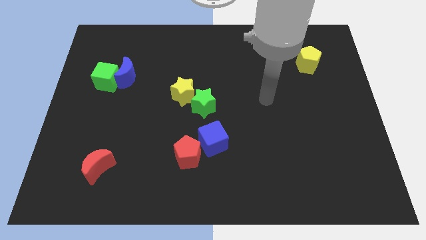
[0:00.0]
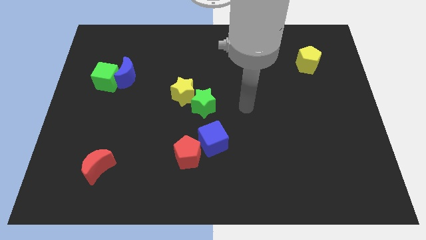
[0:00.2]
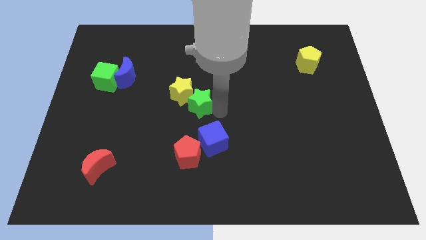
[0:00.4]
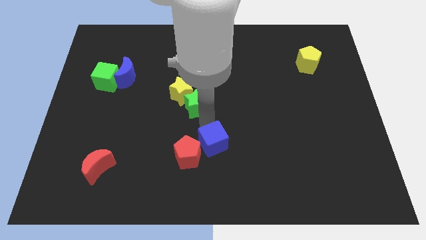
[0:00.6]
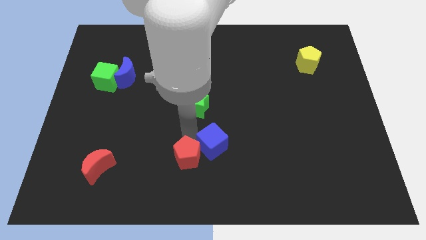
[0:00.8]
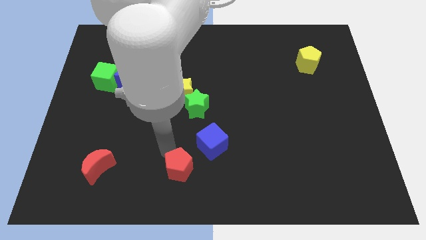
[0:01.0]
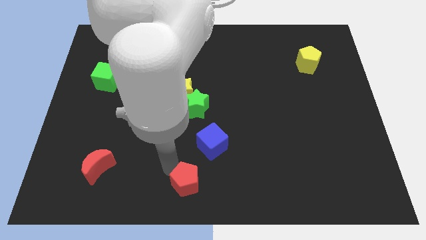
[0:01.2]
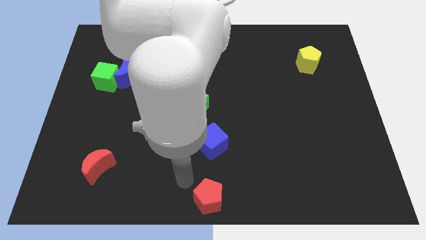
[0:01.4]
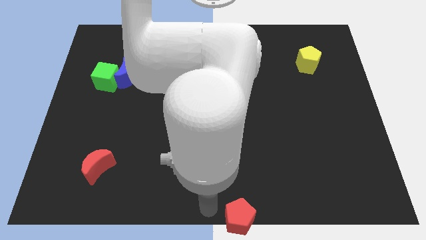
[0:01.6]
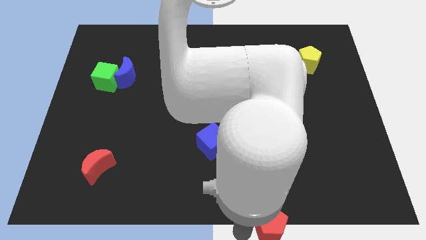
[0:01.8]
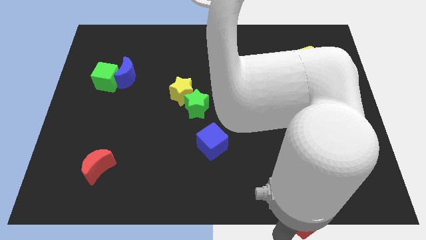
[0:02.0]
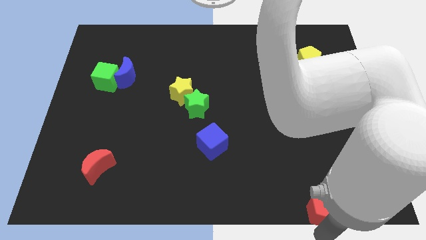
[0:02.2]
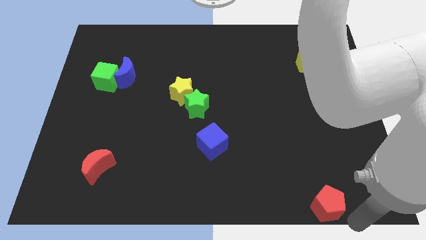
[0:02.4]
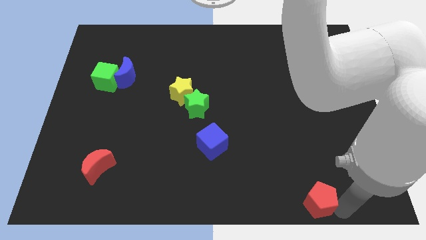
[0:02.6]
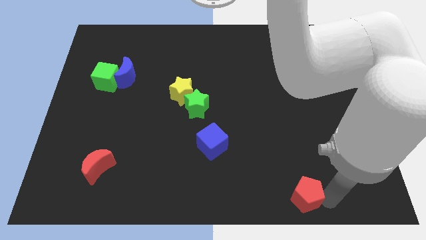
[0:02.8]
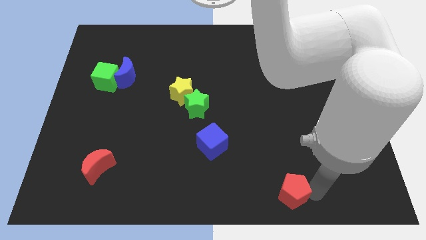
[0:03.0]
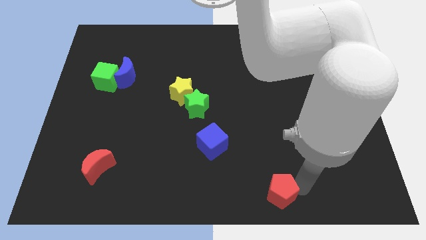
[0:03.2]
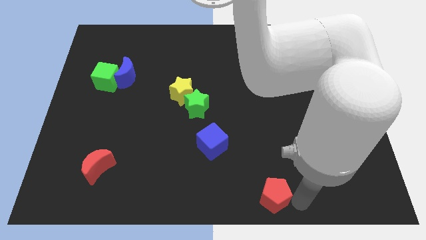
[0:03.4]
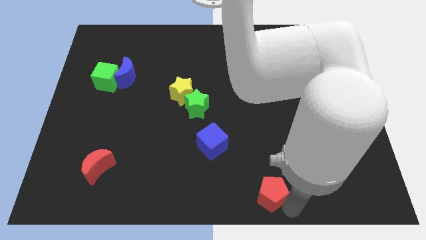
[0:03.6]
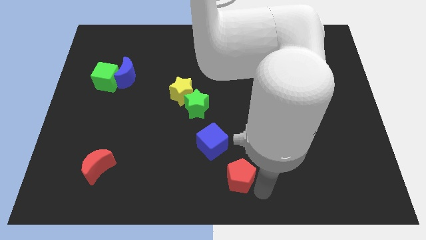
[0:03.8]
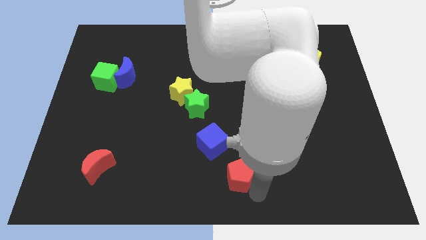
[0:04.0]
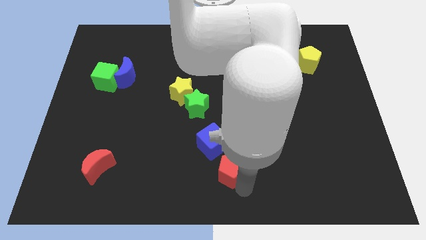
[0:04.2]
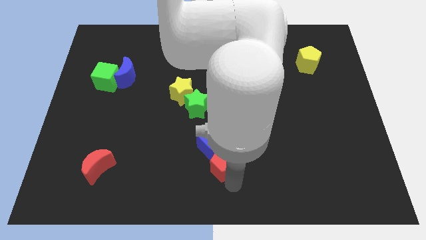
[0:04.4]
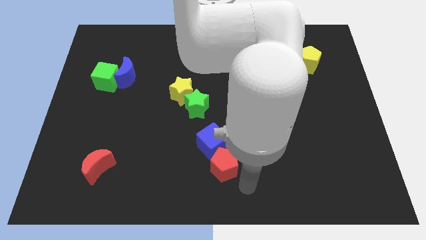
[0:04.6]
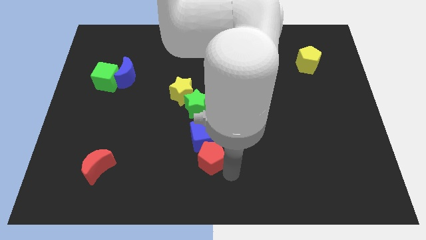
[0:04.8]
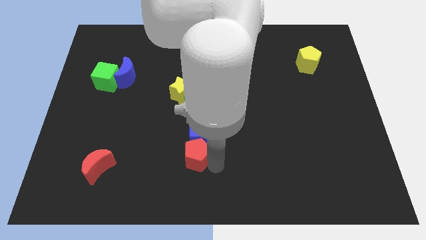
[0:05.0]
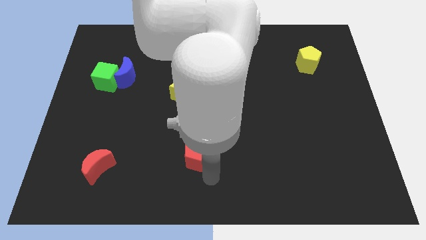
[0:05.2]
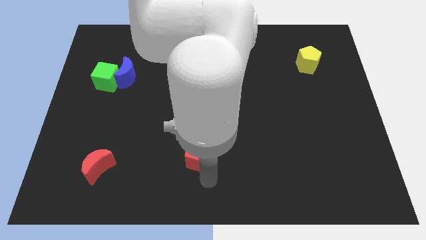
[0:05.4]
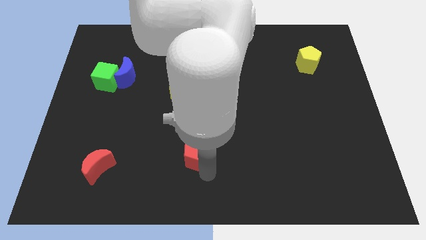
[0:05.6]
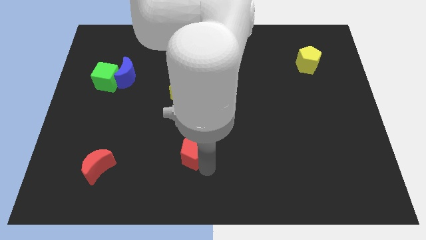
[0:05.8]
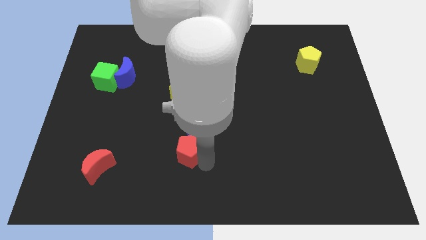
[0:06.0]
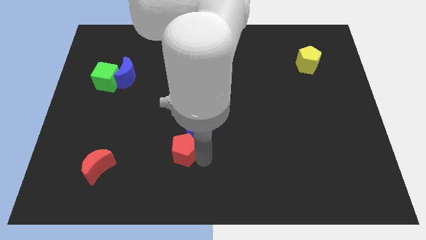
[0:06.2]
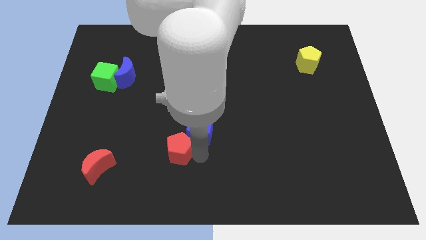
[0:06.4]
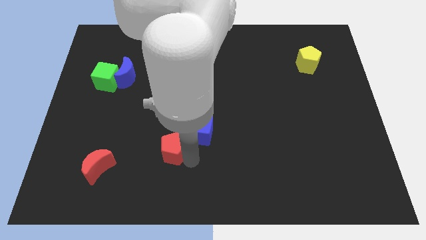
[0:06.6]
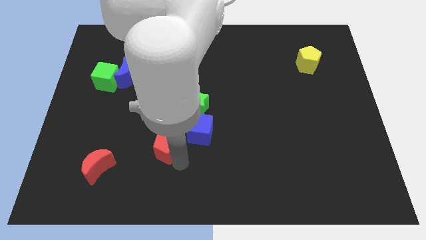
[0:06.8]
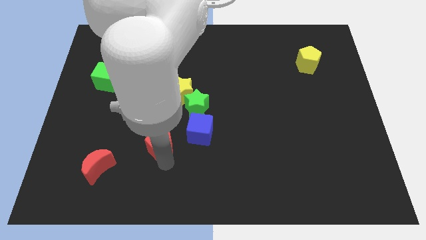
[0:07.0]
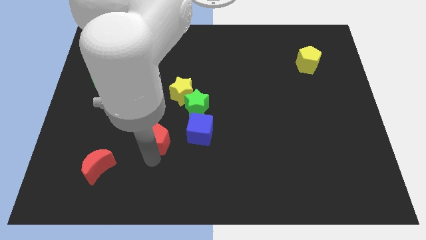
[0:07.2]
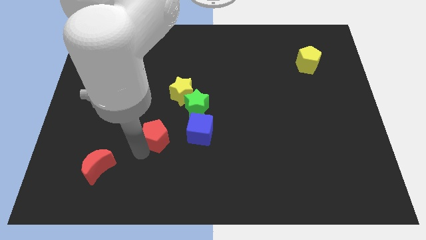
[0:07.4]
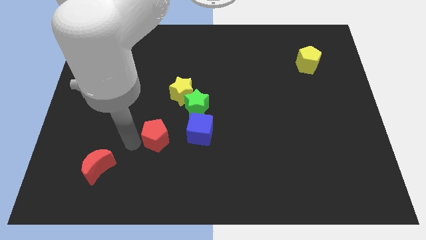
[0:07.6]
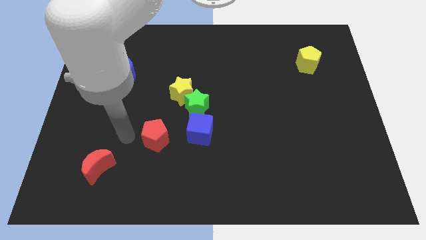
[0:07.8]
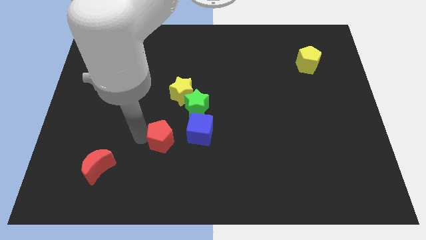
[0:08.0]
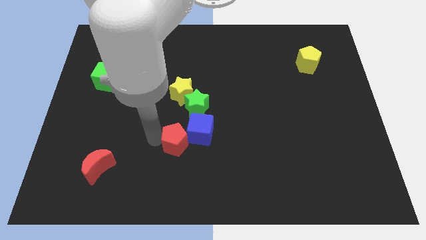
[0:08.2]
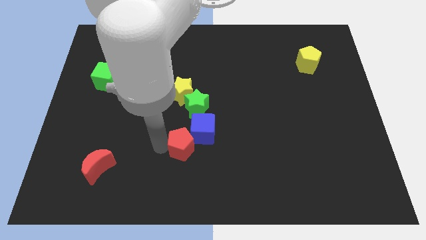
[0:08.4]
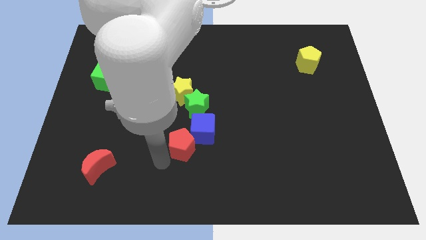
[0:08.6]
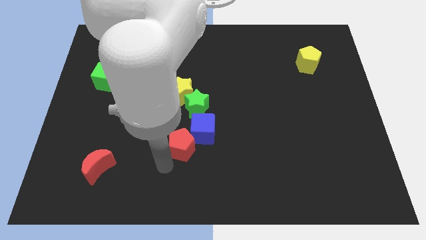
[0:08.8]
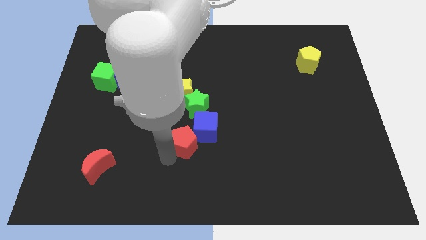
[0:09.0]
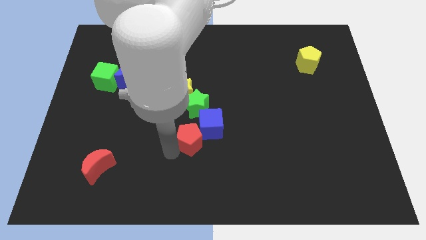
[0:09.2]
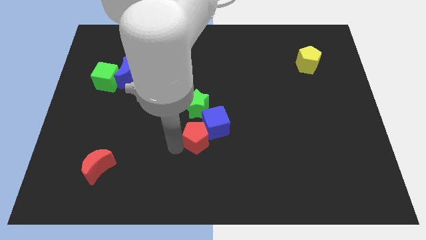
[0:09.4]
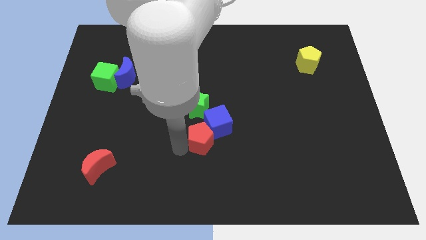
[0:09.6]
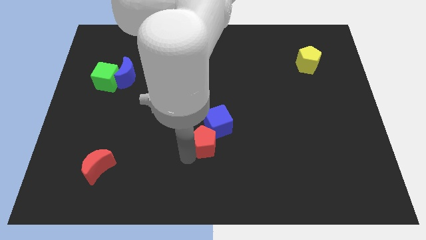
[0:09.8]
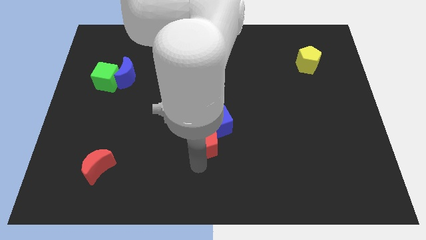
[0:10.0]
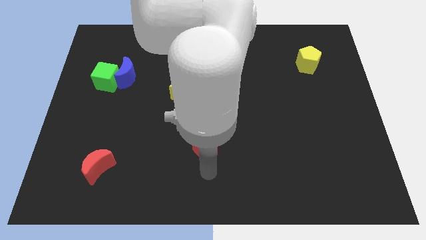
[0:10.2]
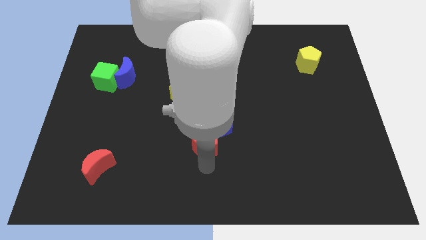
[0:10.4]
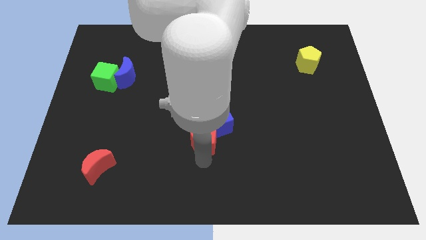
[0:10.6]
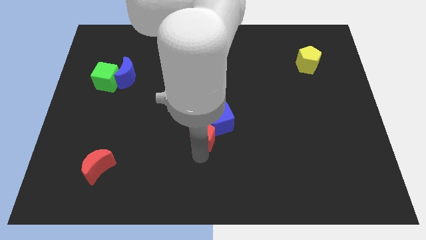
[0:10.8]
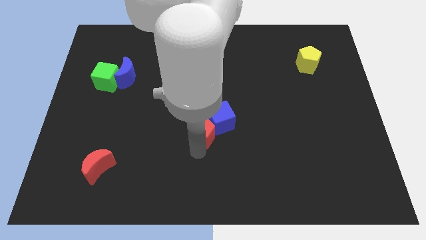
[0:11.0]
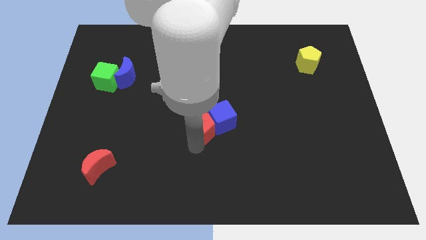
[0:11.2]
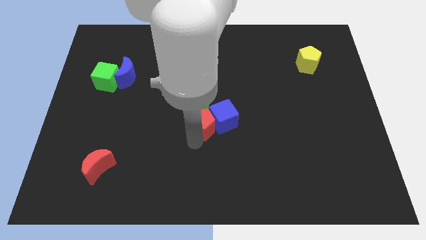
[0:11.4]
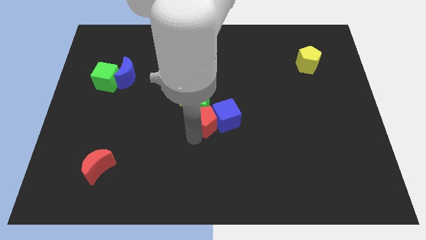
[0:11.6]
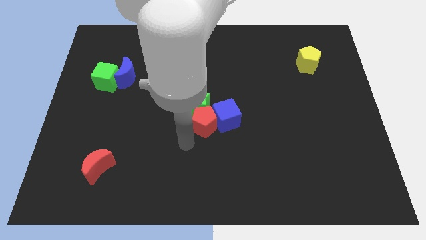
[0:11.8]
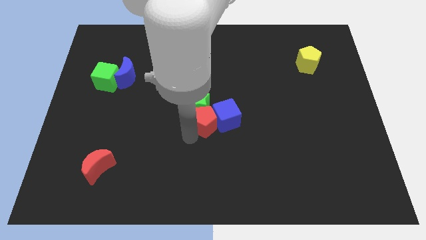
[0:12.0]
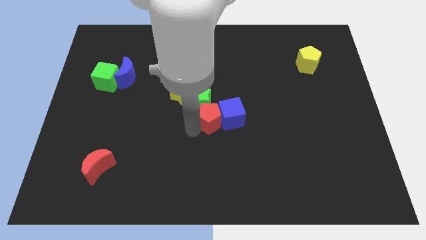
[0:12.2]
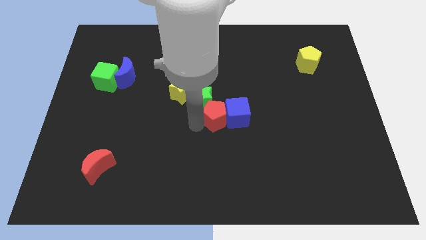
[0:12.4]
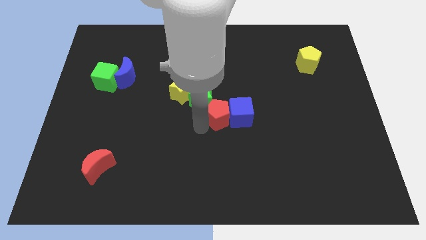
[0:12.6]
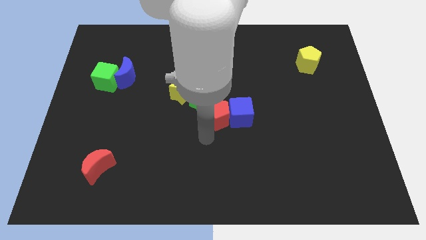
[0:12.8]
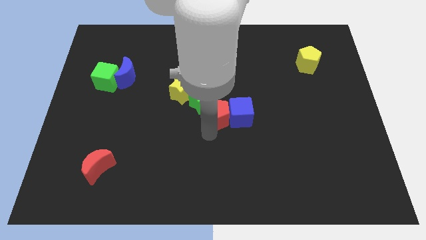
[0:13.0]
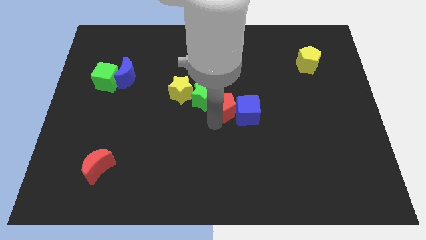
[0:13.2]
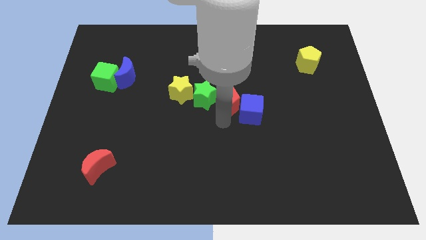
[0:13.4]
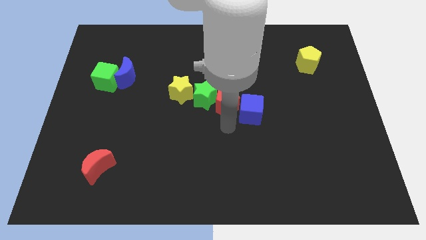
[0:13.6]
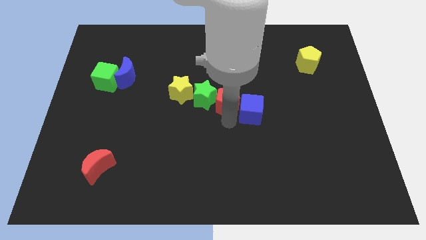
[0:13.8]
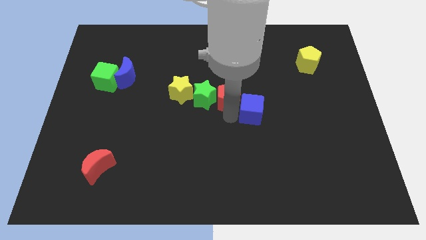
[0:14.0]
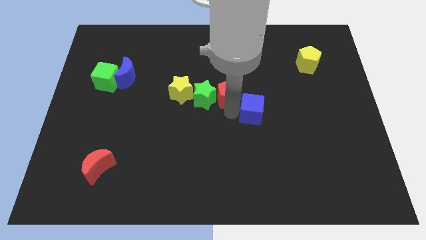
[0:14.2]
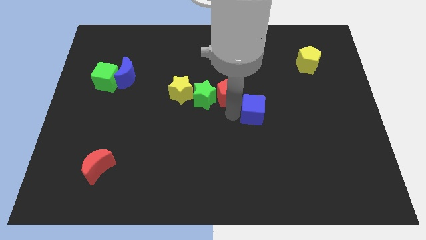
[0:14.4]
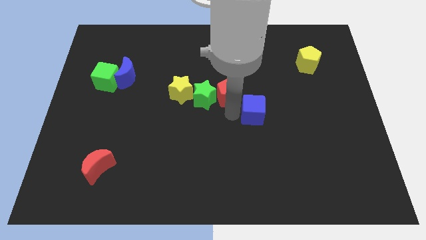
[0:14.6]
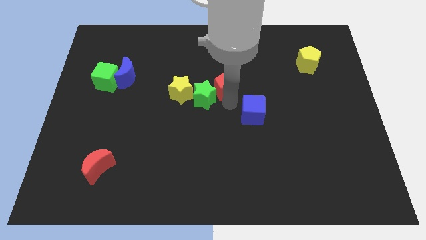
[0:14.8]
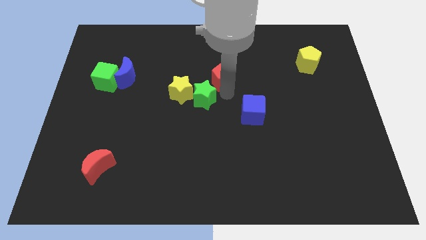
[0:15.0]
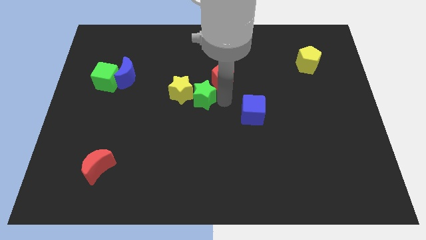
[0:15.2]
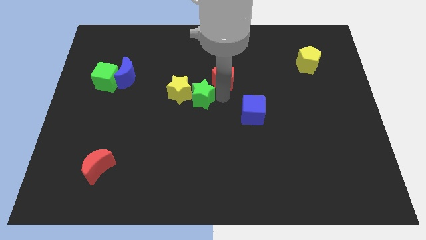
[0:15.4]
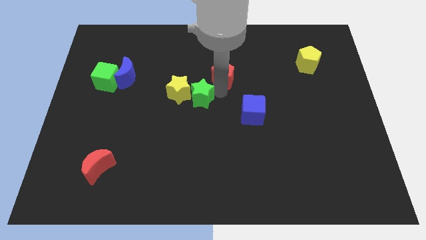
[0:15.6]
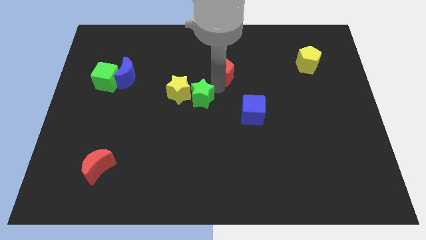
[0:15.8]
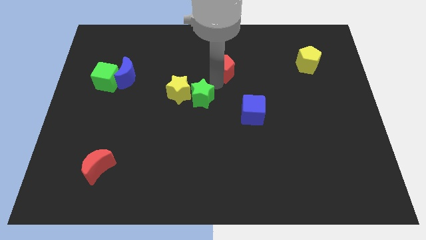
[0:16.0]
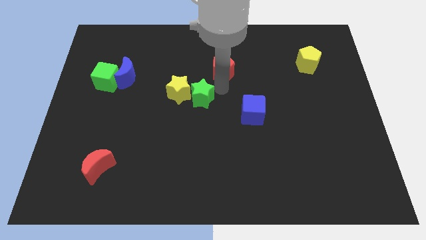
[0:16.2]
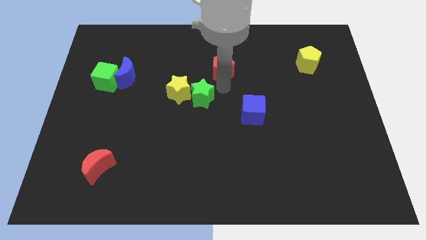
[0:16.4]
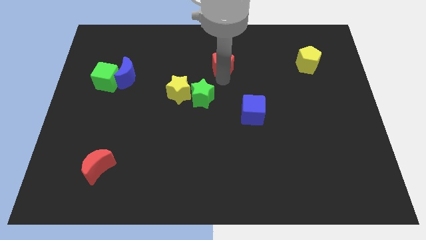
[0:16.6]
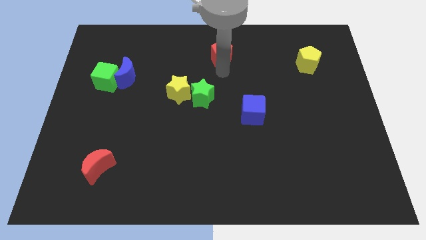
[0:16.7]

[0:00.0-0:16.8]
slide the red pentagon to the top side
